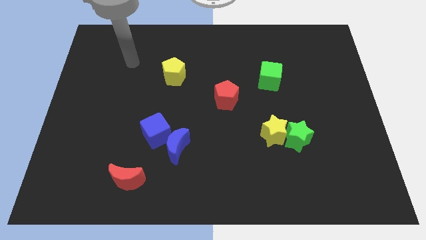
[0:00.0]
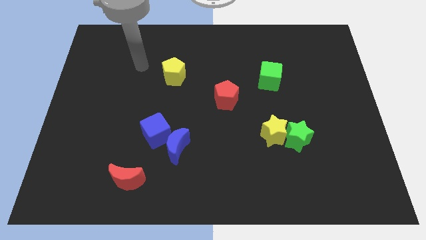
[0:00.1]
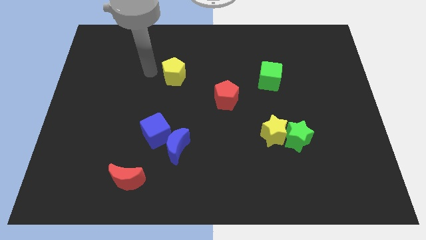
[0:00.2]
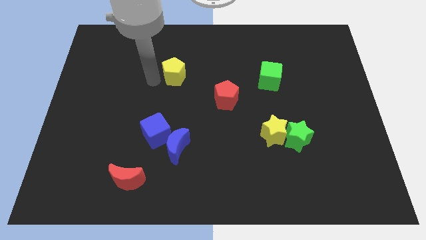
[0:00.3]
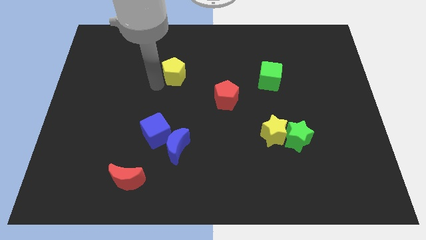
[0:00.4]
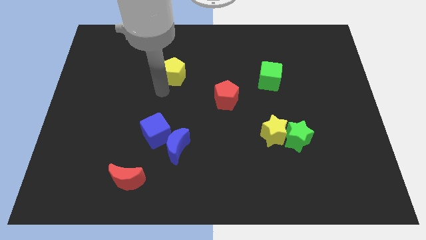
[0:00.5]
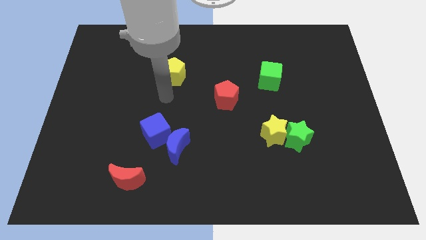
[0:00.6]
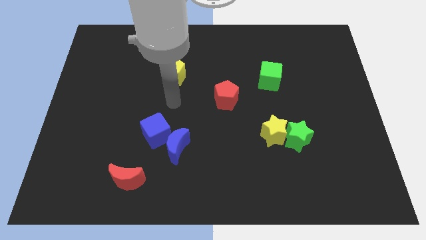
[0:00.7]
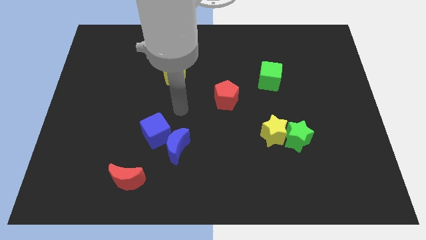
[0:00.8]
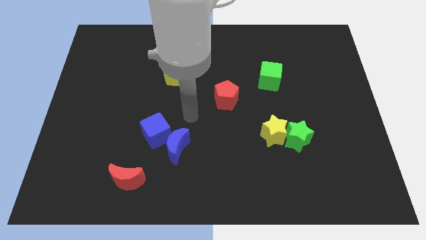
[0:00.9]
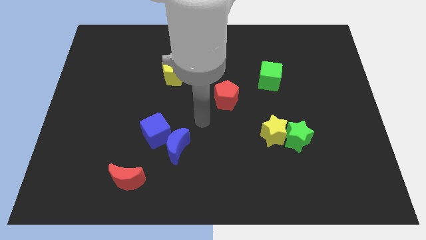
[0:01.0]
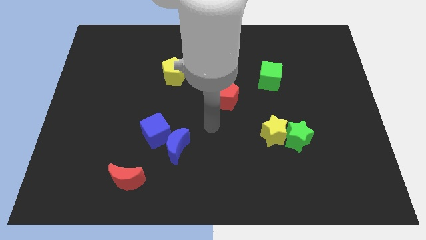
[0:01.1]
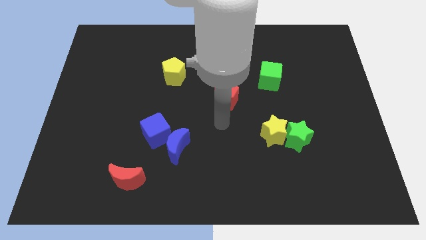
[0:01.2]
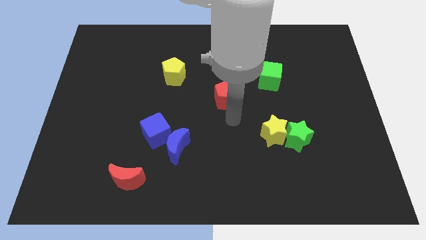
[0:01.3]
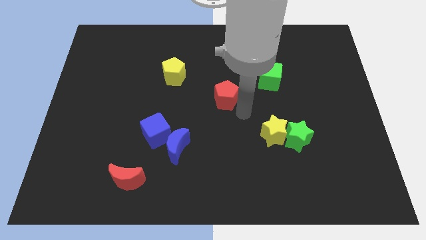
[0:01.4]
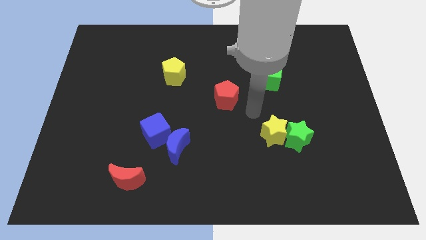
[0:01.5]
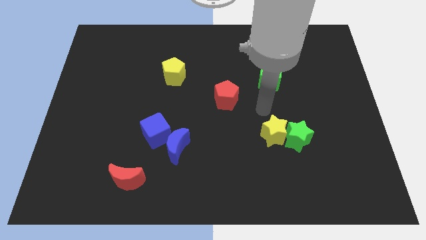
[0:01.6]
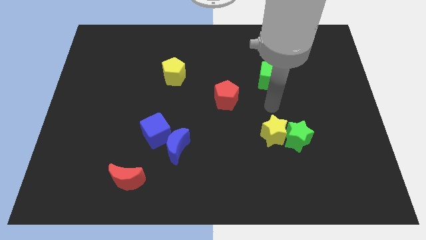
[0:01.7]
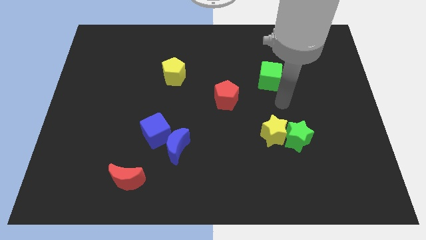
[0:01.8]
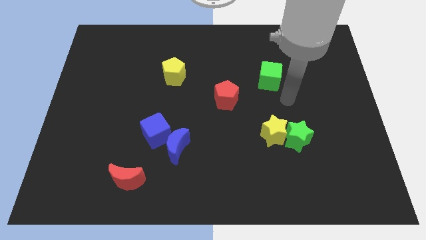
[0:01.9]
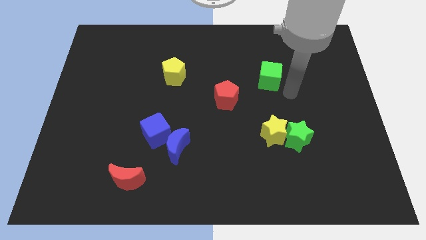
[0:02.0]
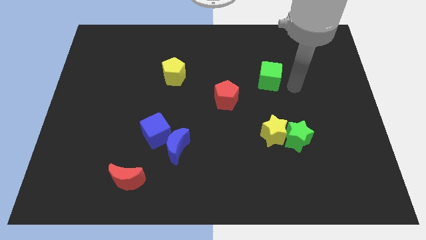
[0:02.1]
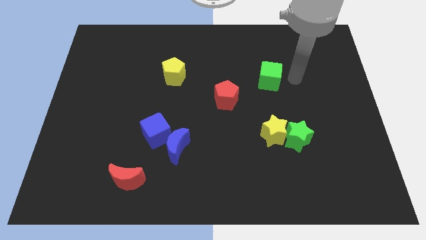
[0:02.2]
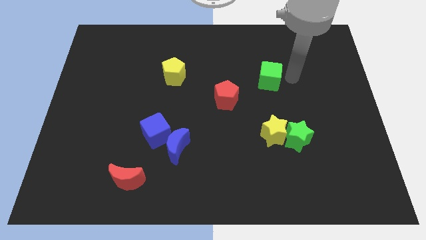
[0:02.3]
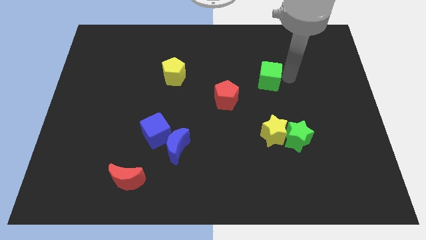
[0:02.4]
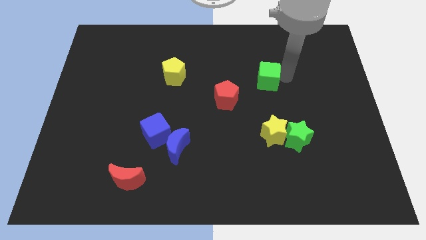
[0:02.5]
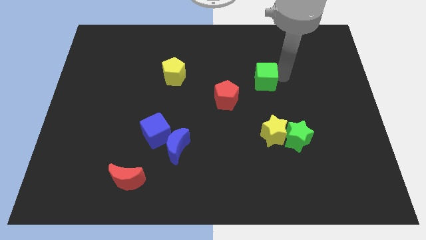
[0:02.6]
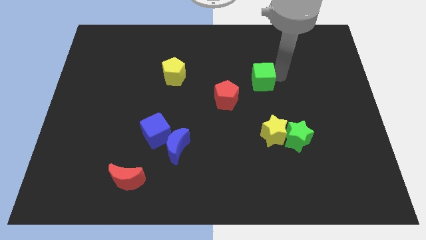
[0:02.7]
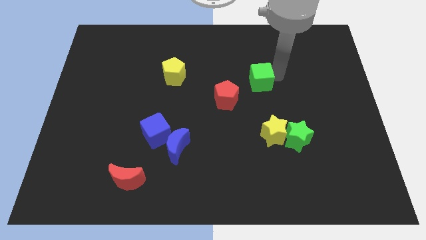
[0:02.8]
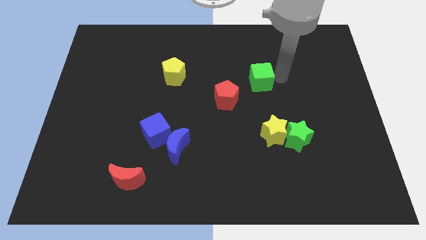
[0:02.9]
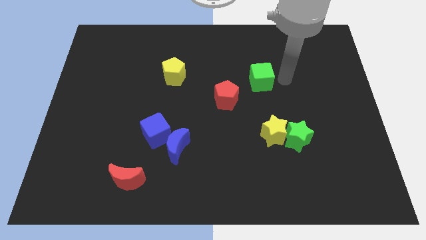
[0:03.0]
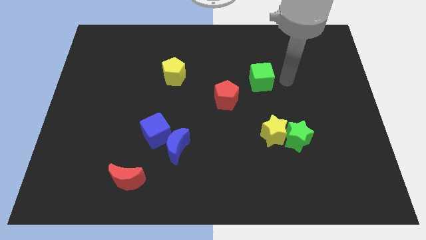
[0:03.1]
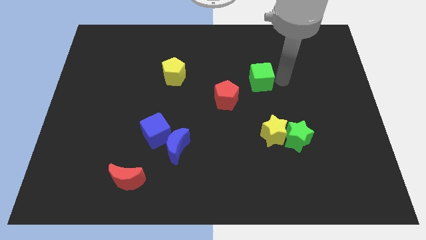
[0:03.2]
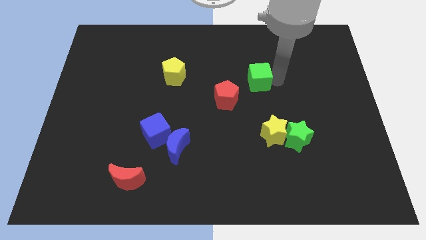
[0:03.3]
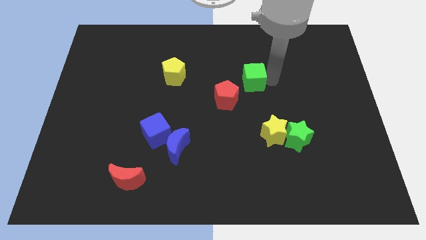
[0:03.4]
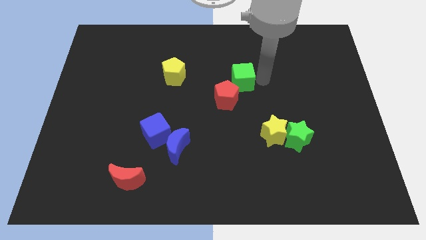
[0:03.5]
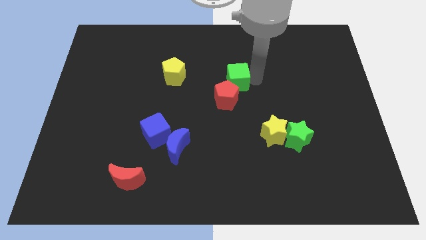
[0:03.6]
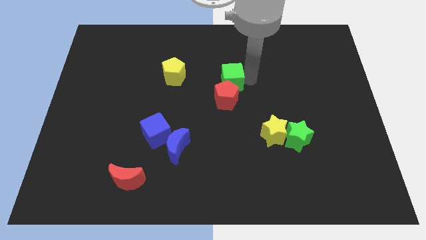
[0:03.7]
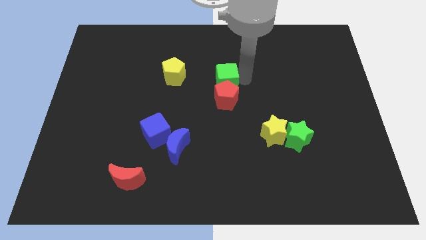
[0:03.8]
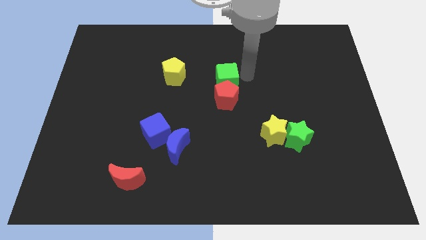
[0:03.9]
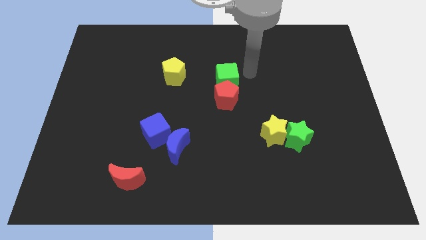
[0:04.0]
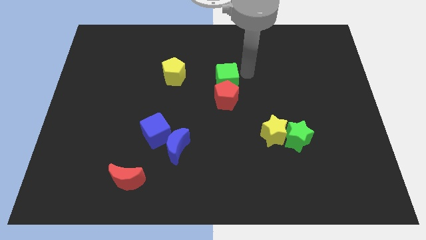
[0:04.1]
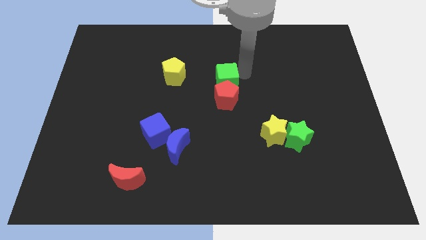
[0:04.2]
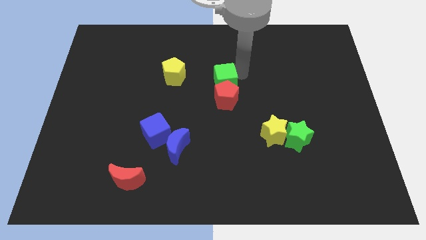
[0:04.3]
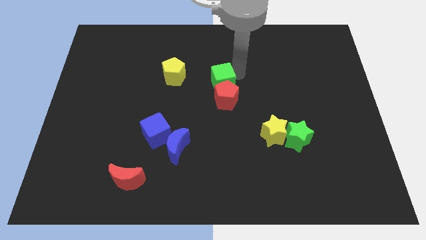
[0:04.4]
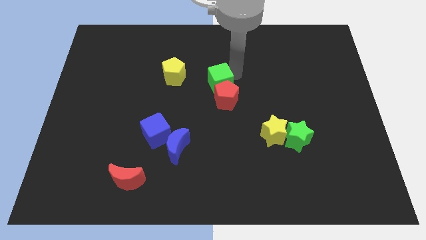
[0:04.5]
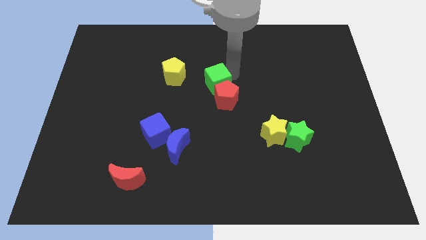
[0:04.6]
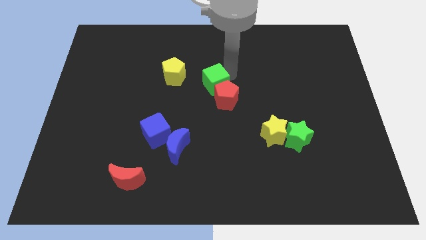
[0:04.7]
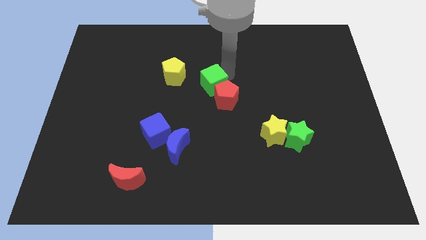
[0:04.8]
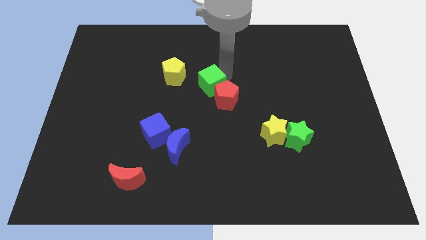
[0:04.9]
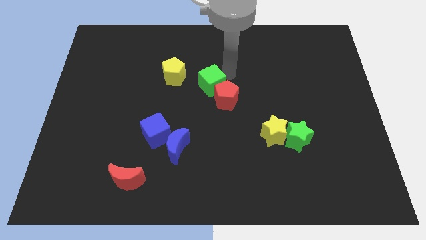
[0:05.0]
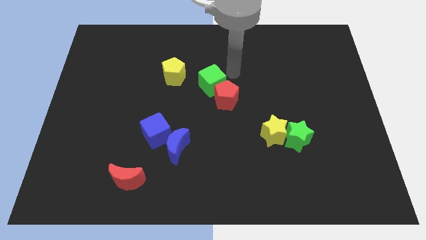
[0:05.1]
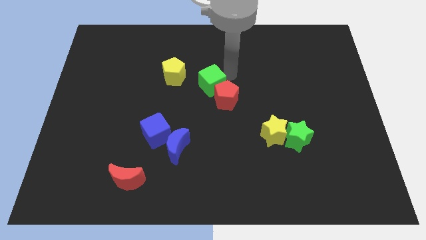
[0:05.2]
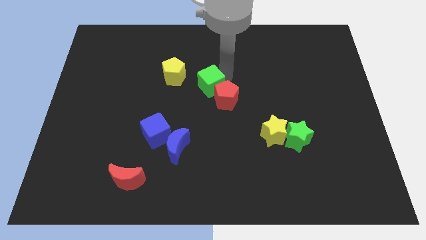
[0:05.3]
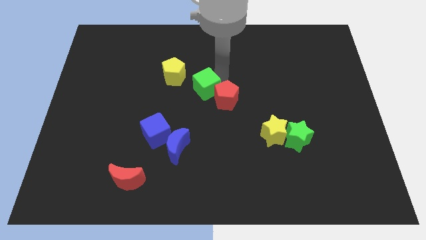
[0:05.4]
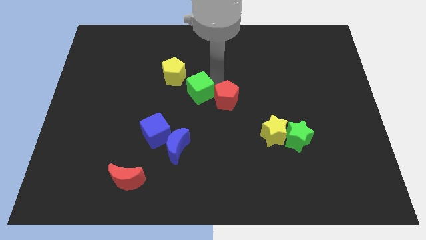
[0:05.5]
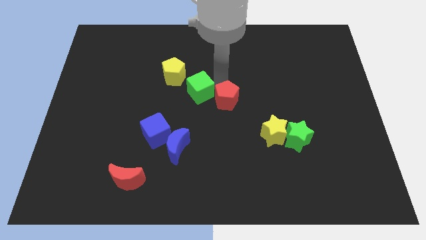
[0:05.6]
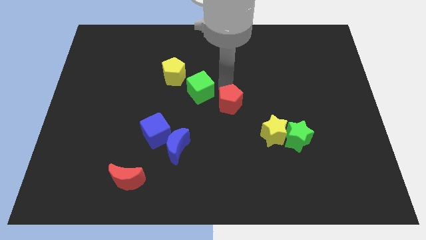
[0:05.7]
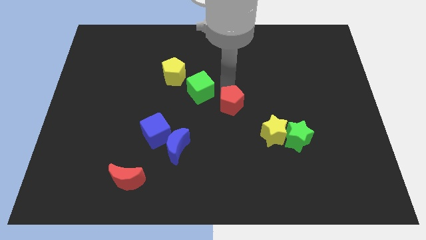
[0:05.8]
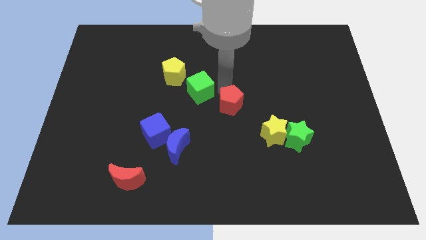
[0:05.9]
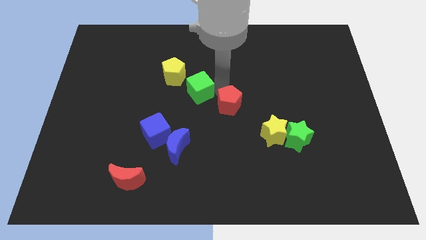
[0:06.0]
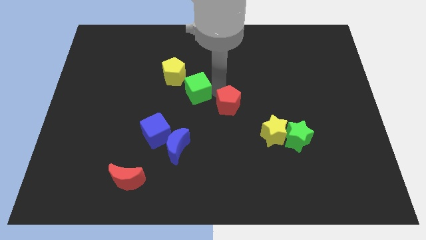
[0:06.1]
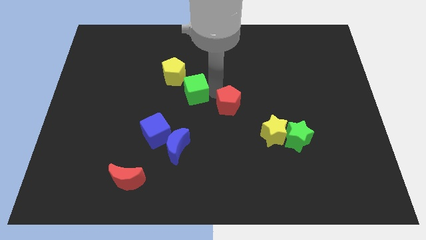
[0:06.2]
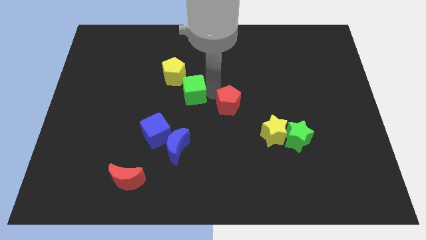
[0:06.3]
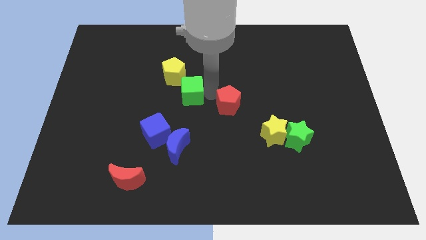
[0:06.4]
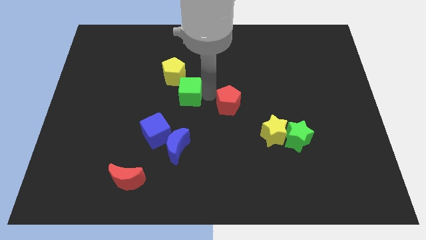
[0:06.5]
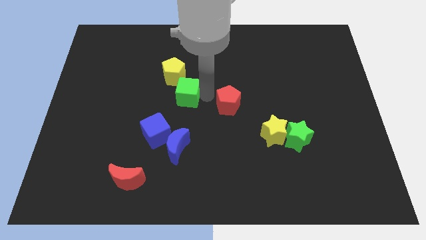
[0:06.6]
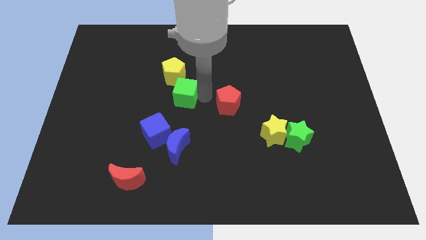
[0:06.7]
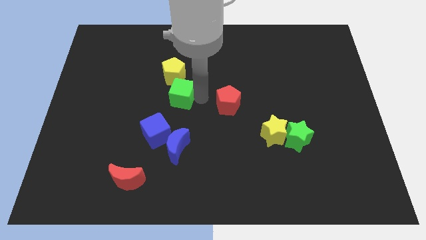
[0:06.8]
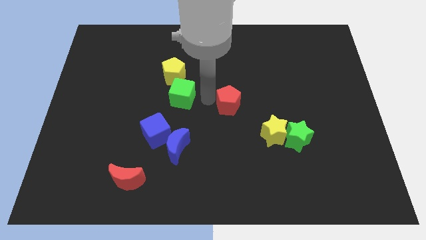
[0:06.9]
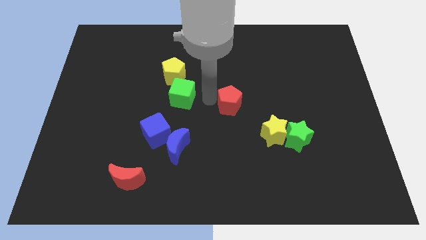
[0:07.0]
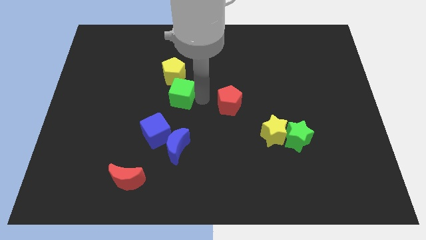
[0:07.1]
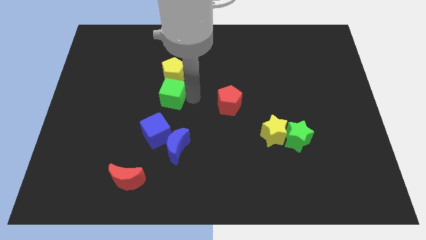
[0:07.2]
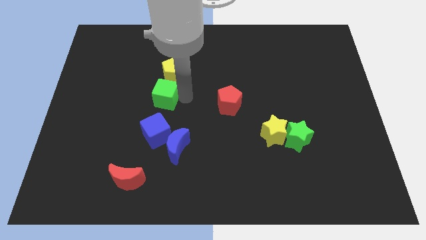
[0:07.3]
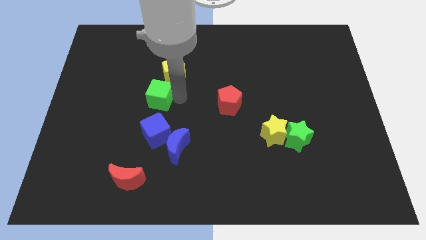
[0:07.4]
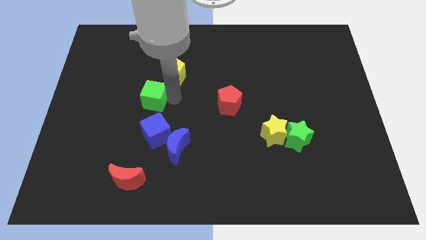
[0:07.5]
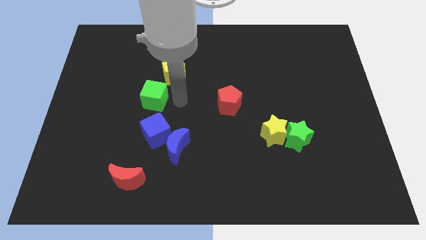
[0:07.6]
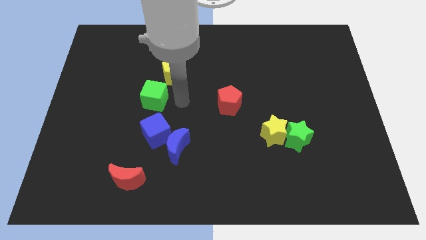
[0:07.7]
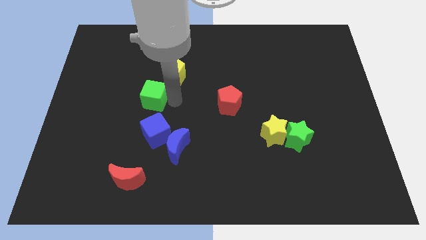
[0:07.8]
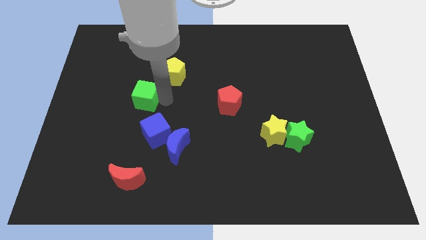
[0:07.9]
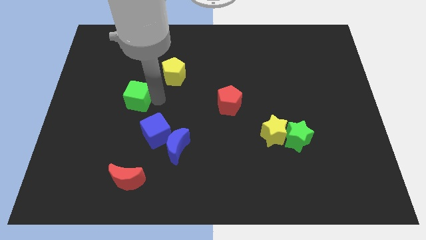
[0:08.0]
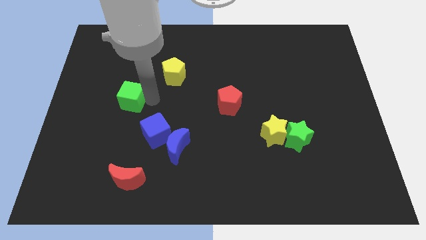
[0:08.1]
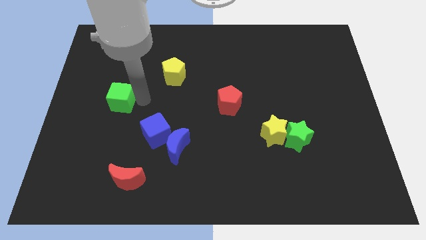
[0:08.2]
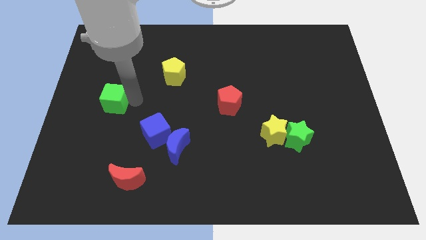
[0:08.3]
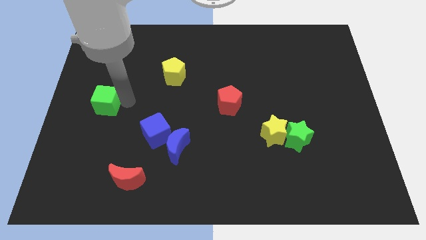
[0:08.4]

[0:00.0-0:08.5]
move the green cube to the center left
